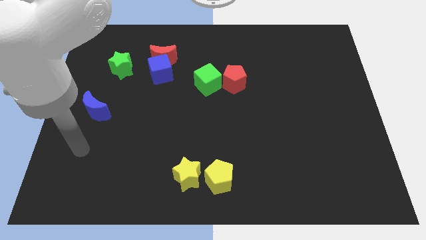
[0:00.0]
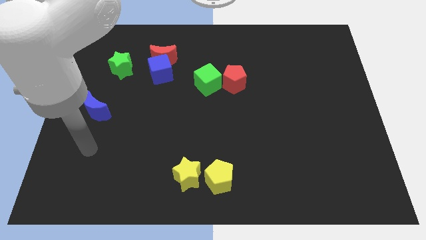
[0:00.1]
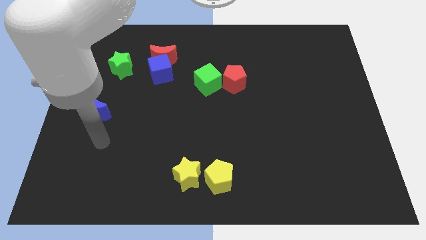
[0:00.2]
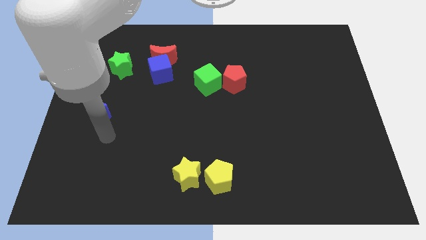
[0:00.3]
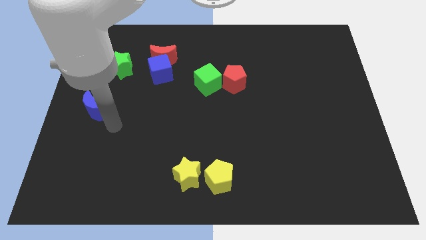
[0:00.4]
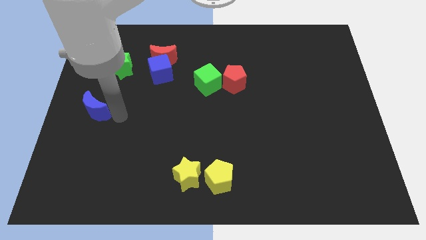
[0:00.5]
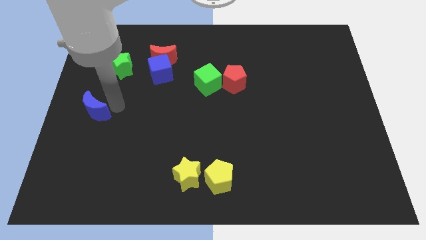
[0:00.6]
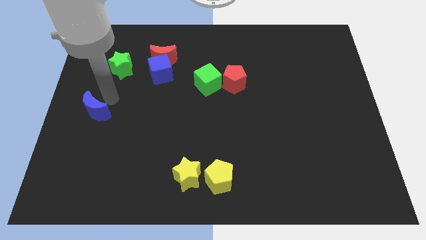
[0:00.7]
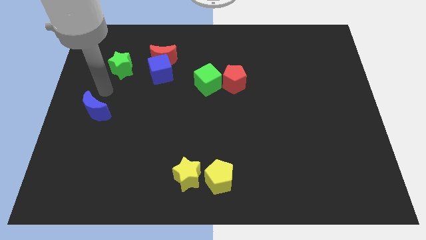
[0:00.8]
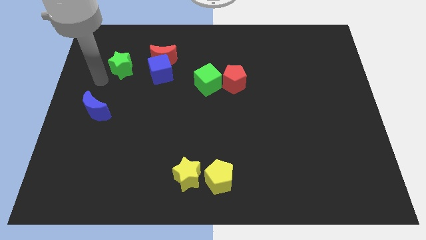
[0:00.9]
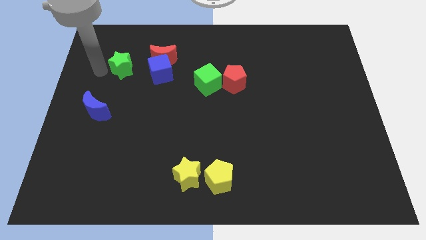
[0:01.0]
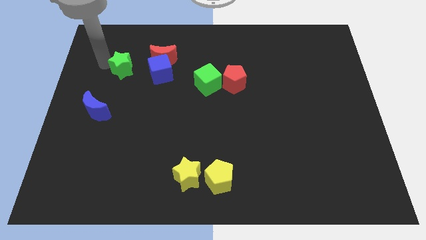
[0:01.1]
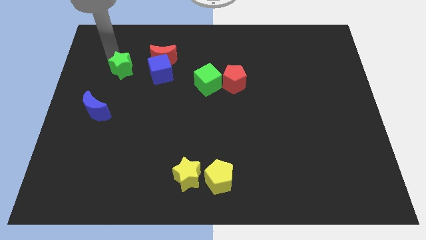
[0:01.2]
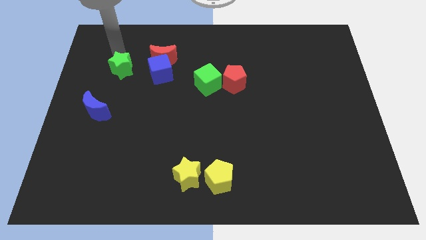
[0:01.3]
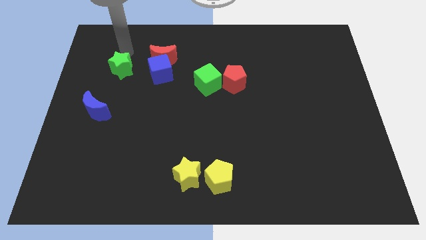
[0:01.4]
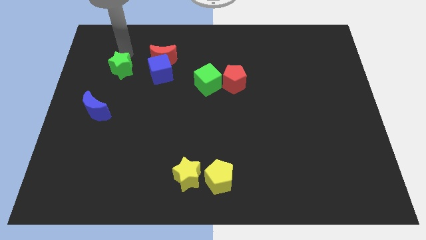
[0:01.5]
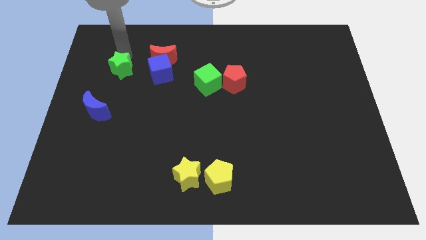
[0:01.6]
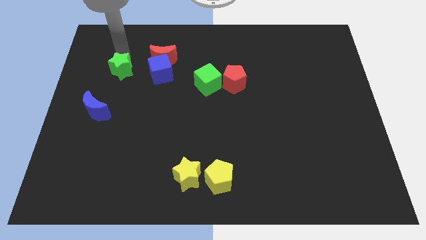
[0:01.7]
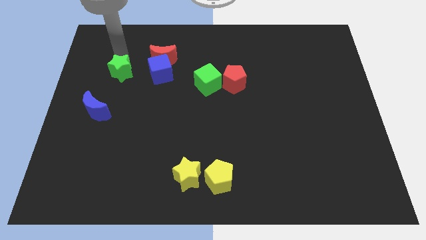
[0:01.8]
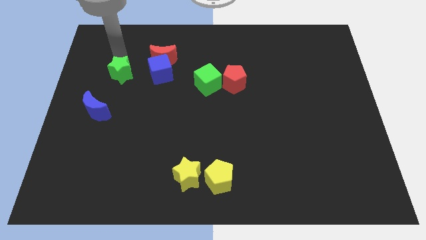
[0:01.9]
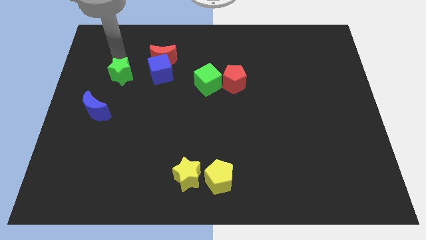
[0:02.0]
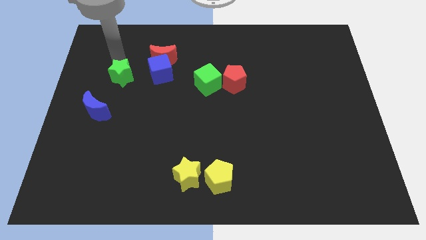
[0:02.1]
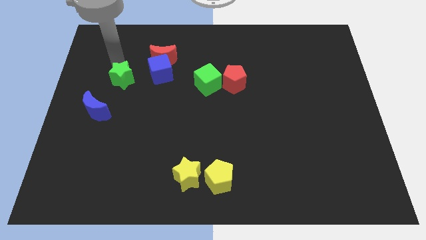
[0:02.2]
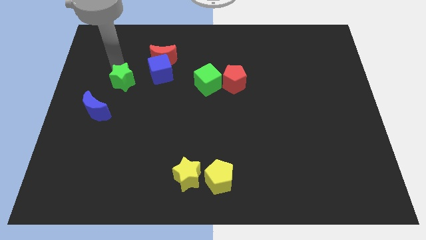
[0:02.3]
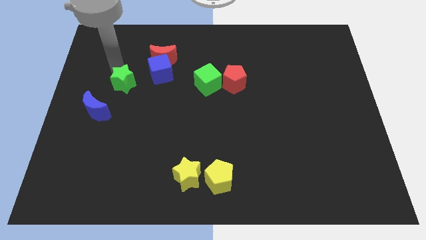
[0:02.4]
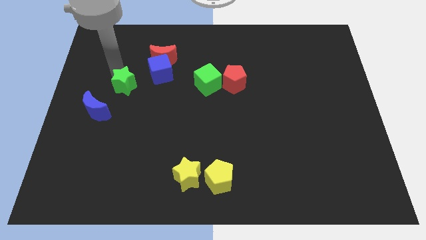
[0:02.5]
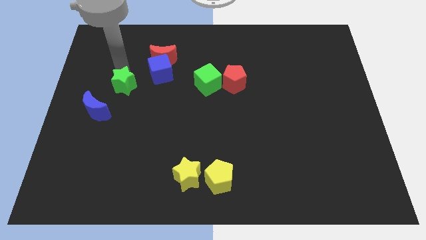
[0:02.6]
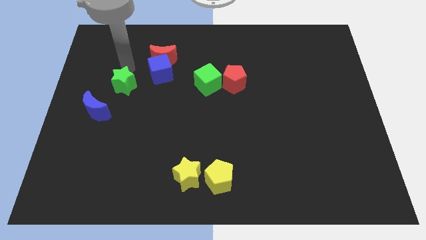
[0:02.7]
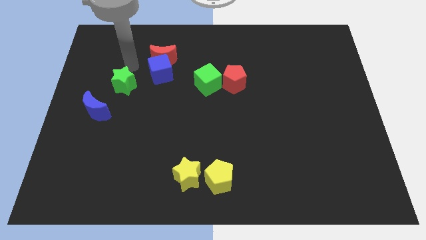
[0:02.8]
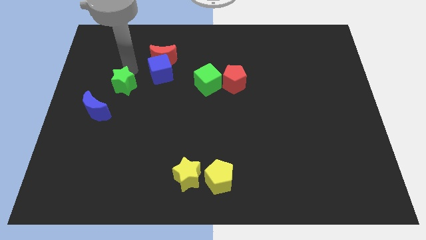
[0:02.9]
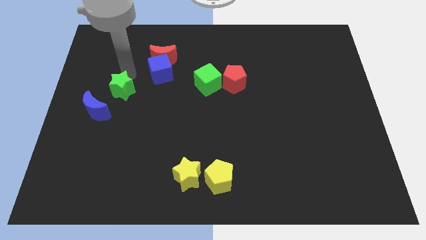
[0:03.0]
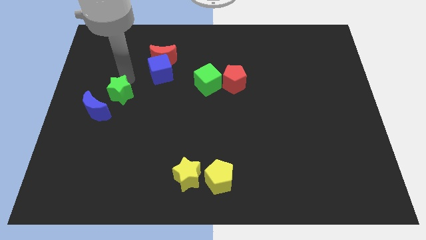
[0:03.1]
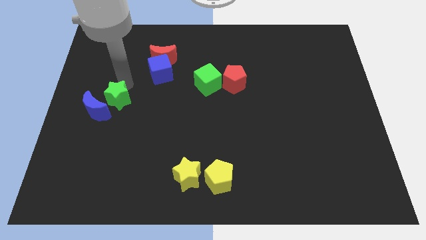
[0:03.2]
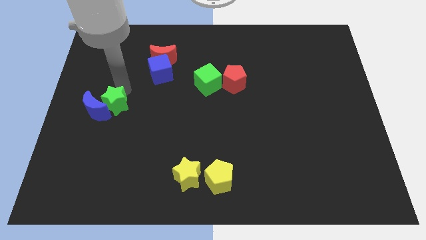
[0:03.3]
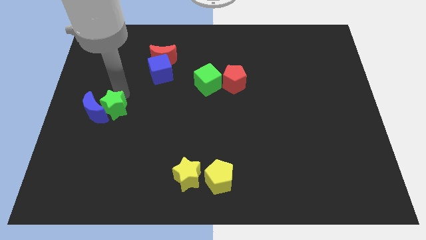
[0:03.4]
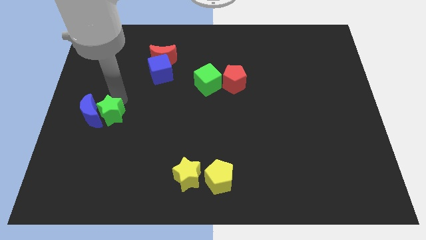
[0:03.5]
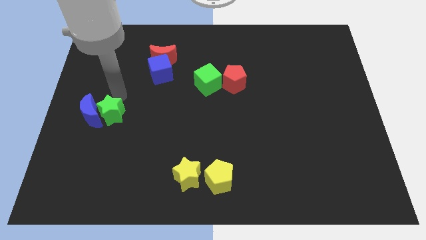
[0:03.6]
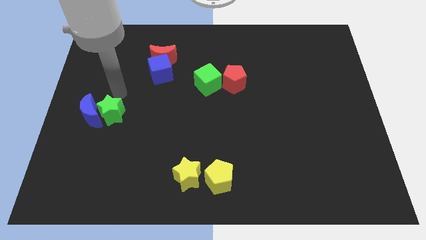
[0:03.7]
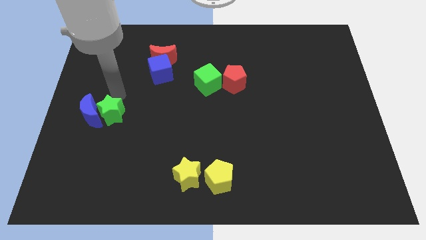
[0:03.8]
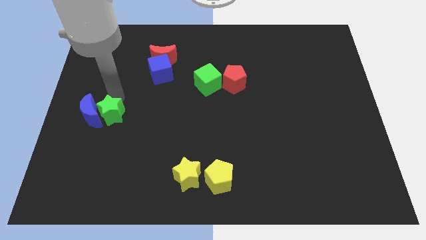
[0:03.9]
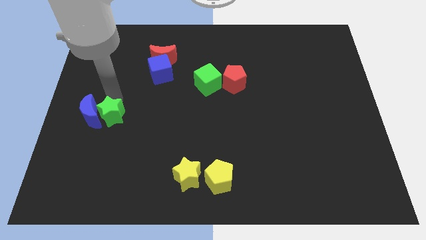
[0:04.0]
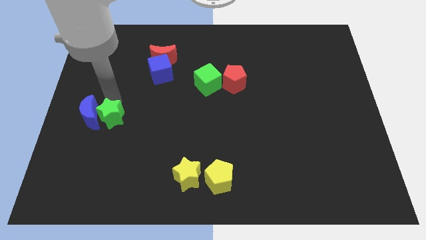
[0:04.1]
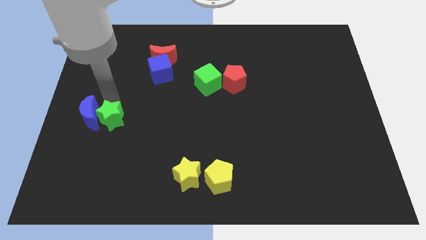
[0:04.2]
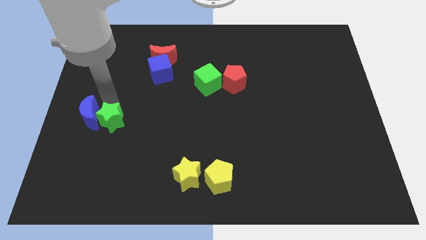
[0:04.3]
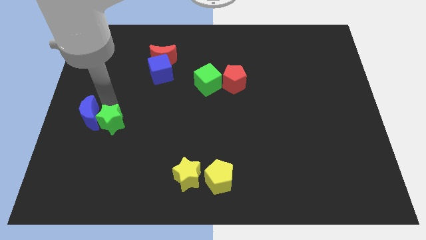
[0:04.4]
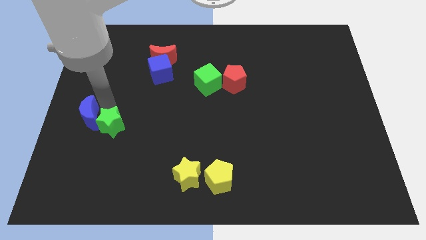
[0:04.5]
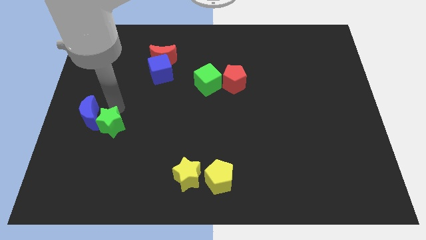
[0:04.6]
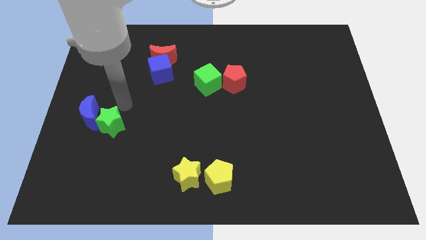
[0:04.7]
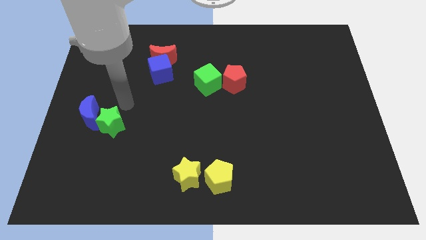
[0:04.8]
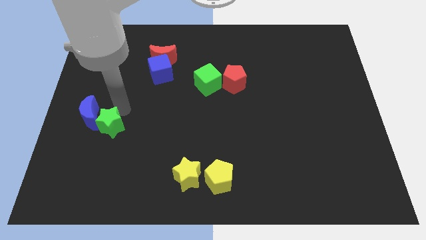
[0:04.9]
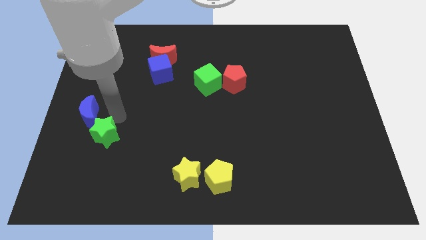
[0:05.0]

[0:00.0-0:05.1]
move the green star down

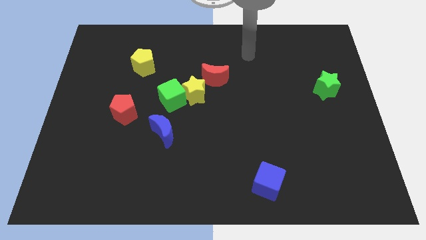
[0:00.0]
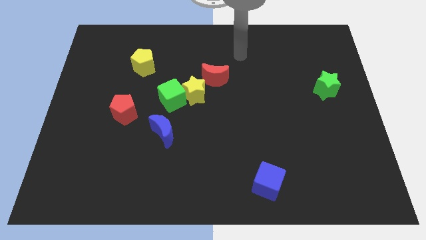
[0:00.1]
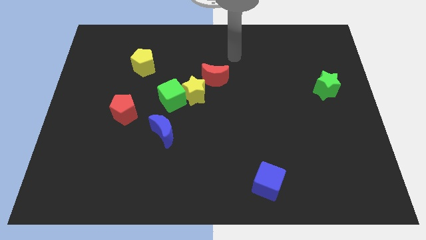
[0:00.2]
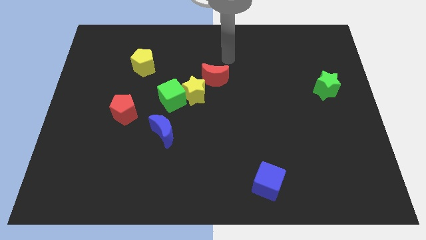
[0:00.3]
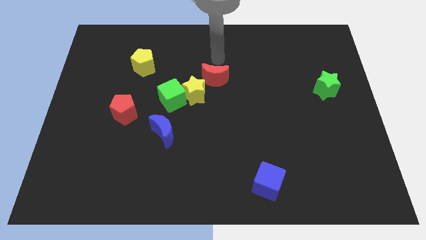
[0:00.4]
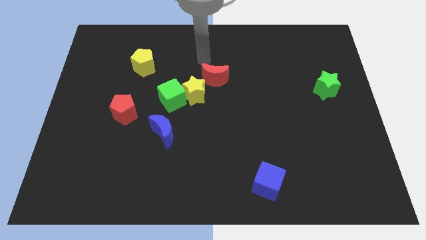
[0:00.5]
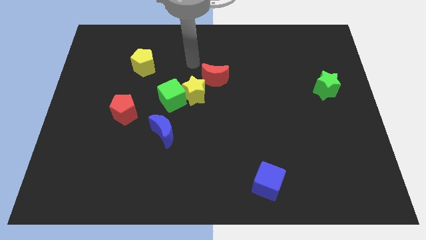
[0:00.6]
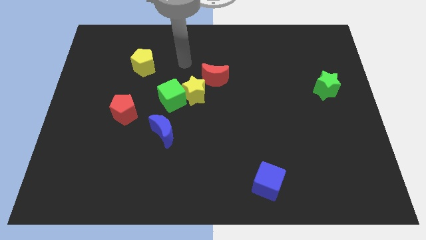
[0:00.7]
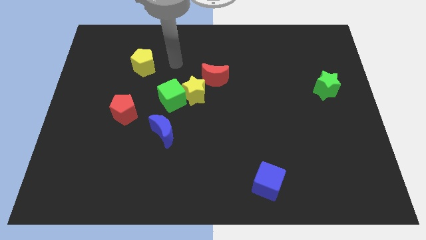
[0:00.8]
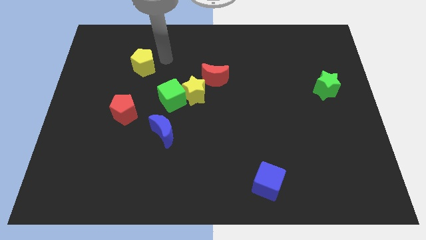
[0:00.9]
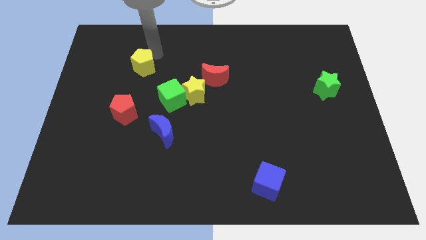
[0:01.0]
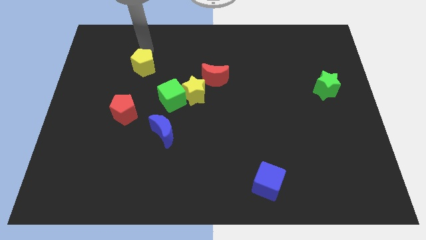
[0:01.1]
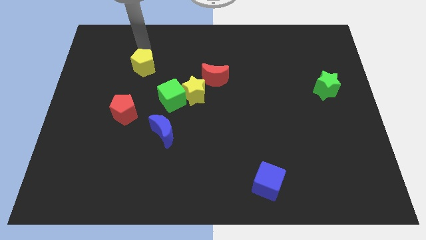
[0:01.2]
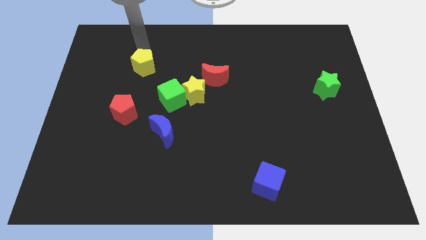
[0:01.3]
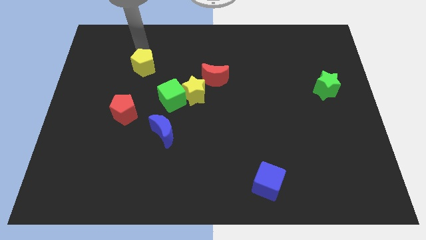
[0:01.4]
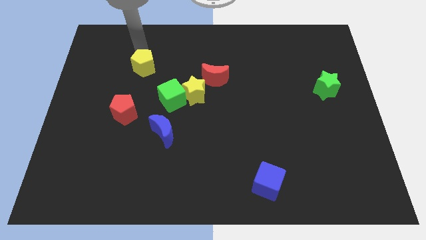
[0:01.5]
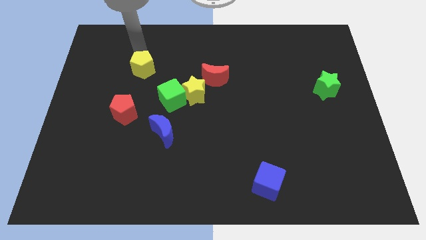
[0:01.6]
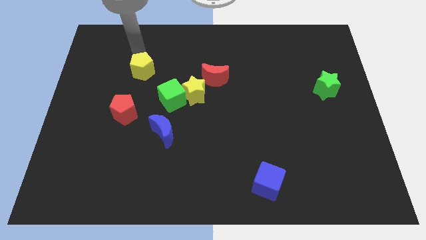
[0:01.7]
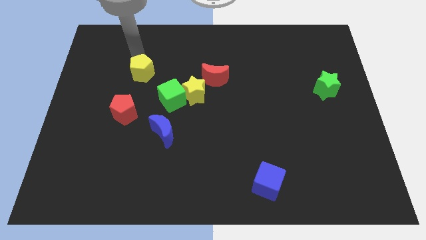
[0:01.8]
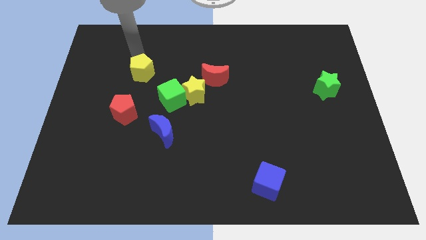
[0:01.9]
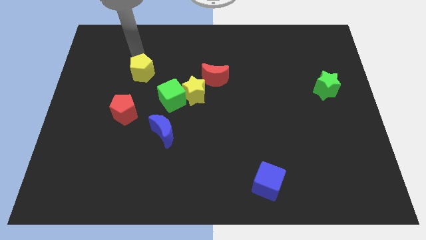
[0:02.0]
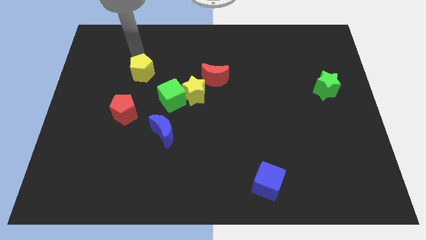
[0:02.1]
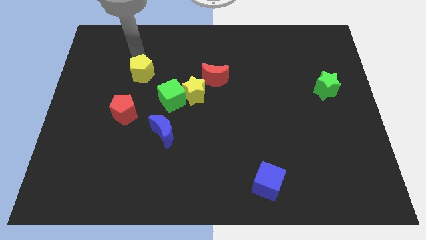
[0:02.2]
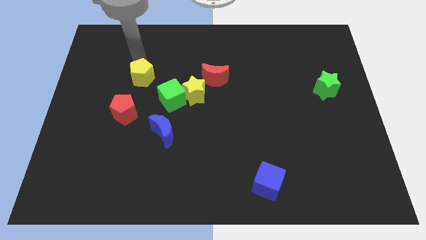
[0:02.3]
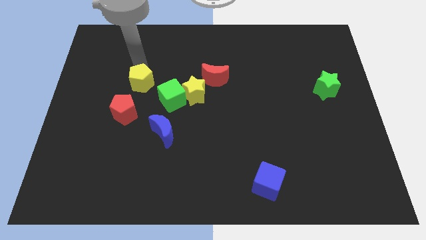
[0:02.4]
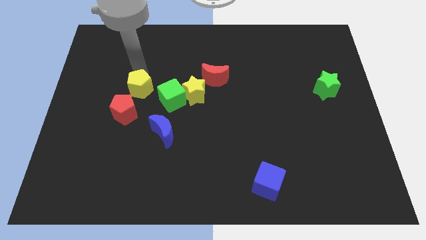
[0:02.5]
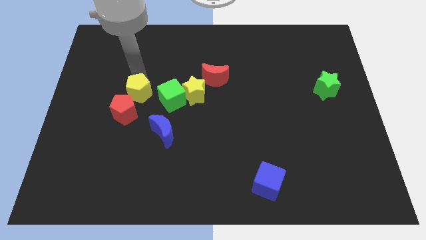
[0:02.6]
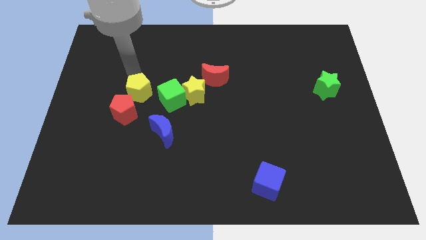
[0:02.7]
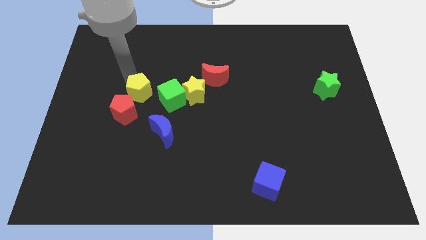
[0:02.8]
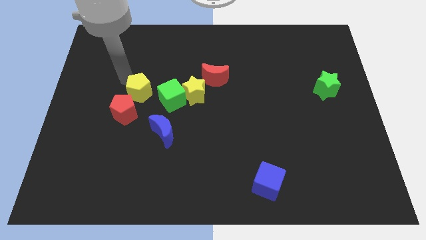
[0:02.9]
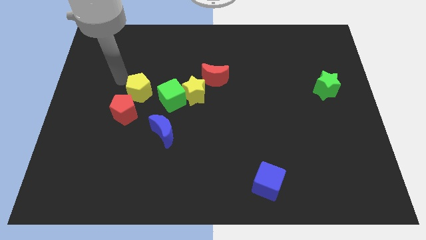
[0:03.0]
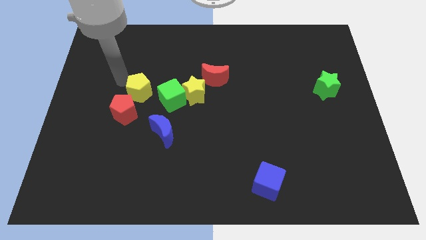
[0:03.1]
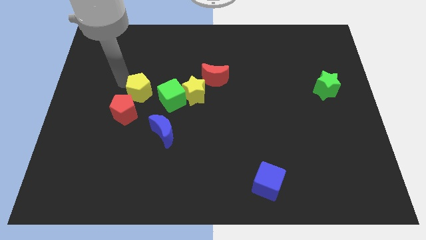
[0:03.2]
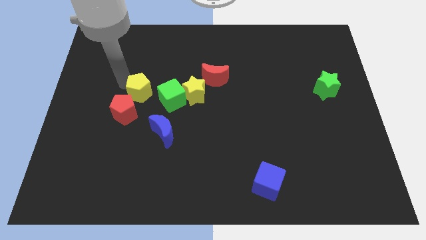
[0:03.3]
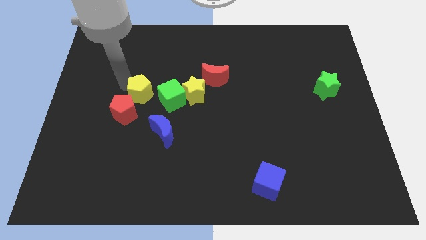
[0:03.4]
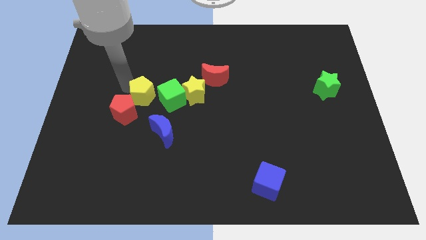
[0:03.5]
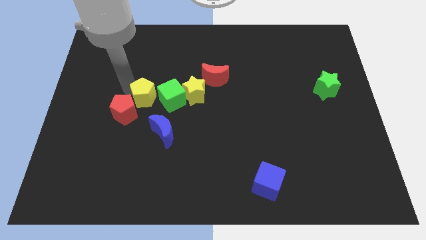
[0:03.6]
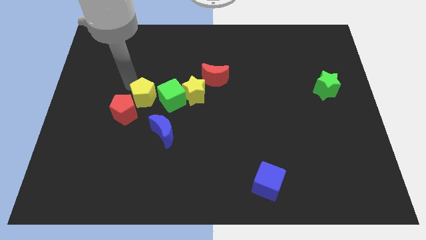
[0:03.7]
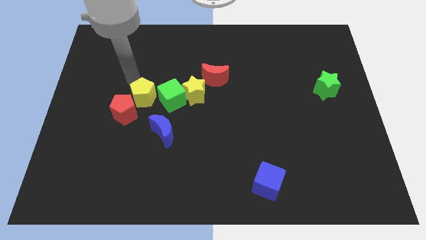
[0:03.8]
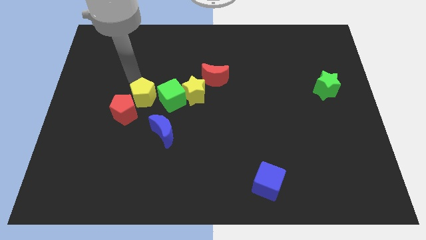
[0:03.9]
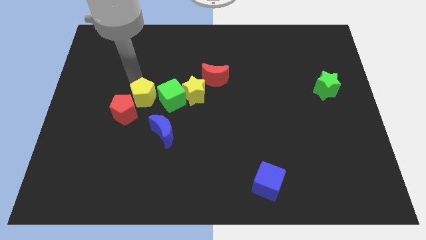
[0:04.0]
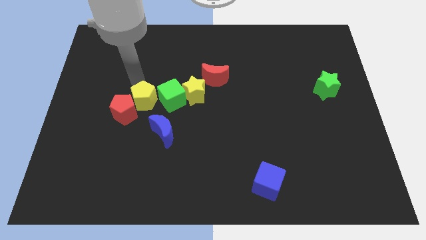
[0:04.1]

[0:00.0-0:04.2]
push the yellow pentagon downwards and to the right a bit
